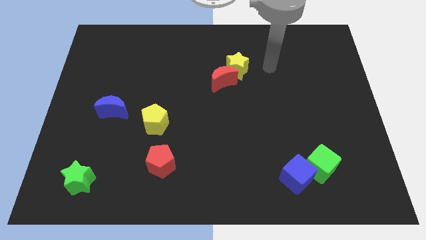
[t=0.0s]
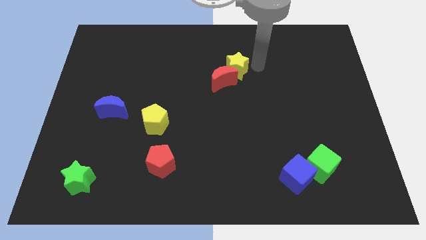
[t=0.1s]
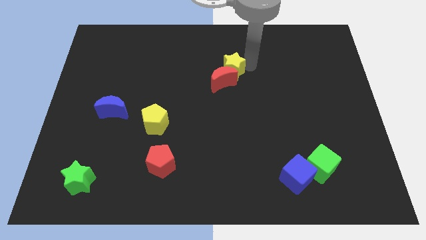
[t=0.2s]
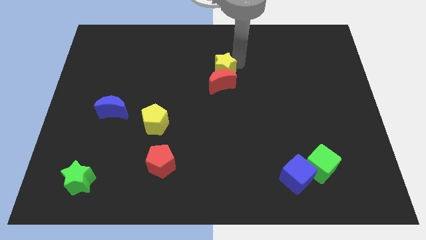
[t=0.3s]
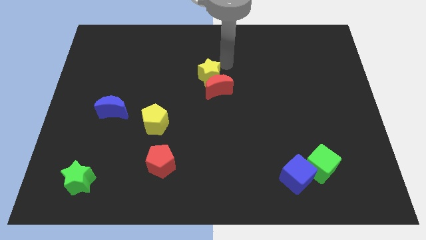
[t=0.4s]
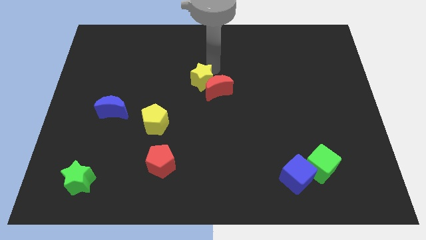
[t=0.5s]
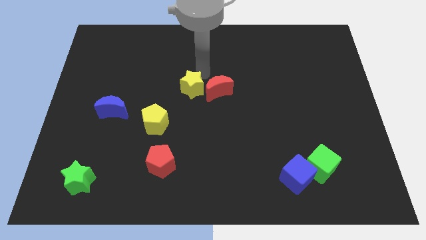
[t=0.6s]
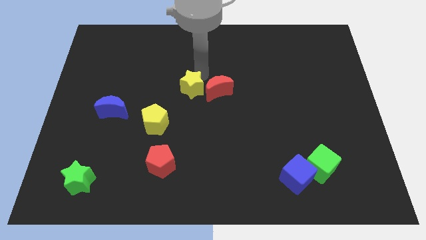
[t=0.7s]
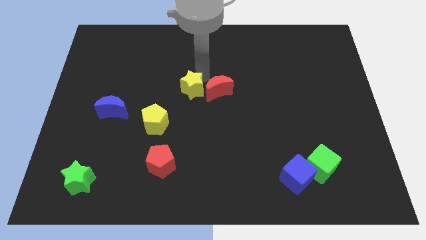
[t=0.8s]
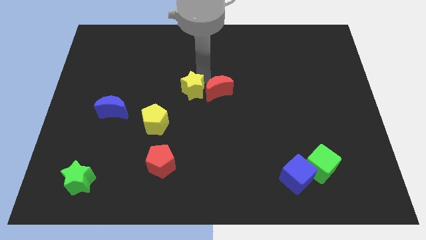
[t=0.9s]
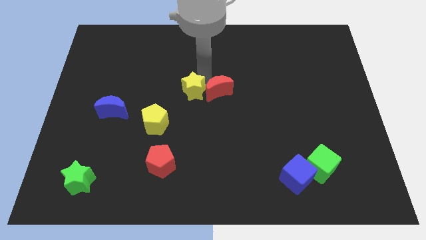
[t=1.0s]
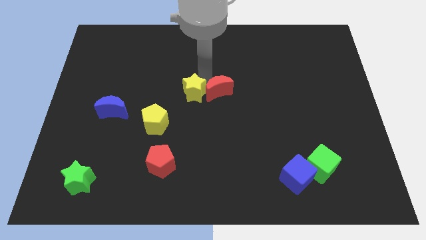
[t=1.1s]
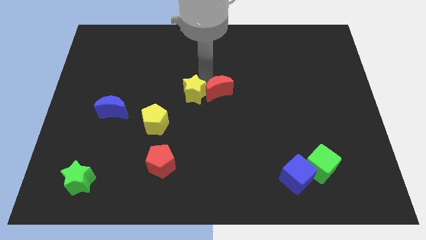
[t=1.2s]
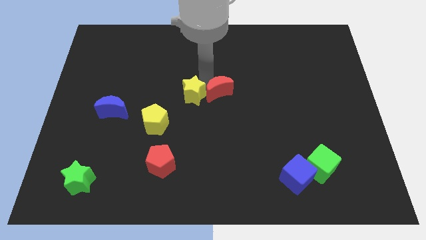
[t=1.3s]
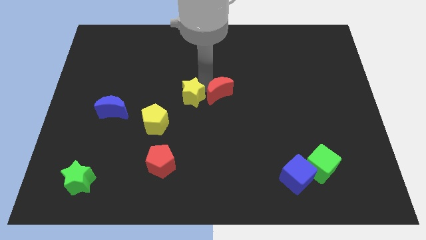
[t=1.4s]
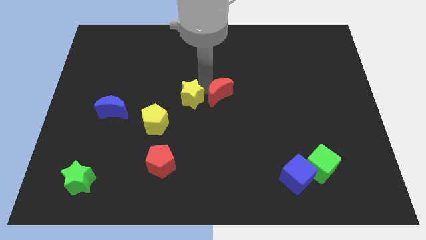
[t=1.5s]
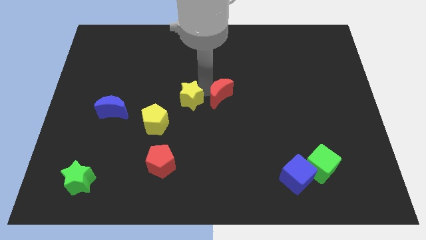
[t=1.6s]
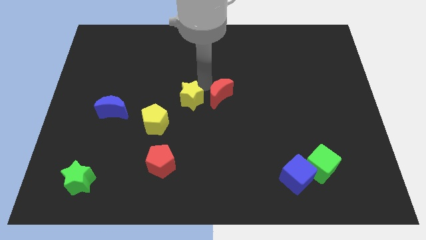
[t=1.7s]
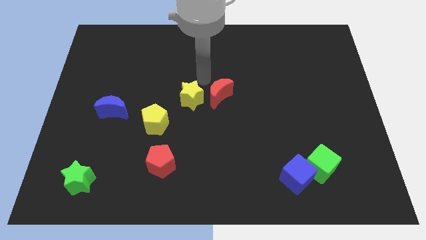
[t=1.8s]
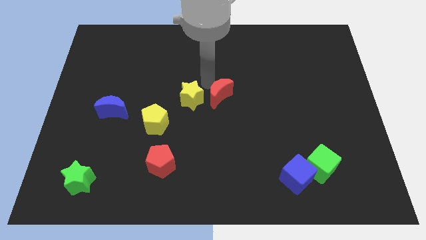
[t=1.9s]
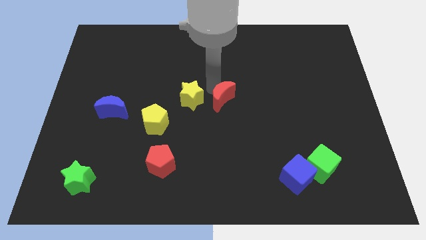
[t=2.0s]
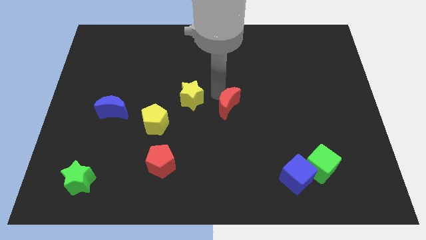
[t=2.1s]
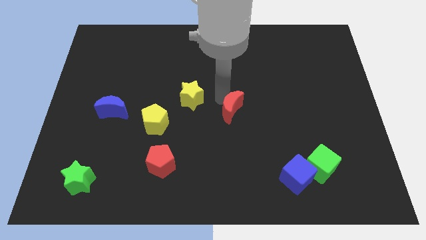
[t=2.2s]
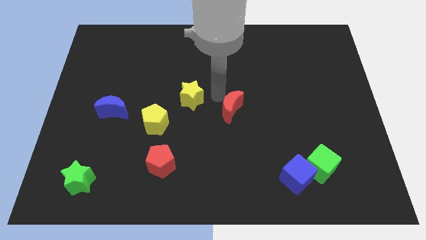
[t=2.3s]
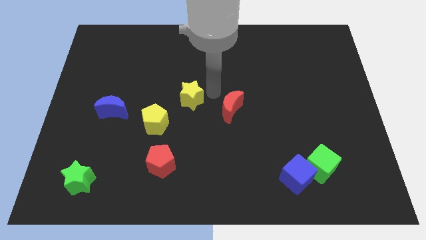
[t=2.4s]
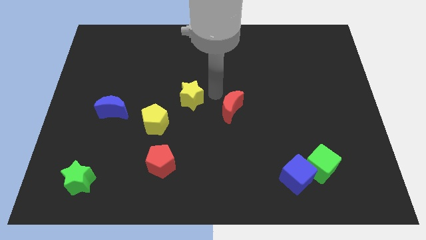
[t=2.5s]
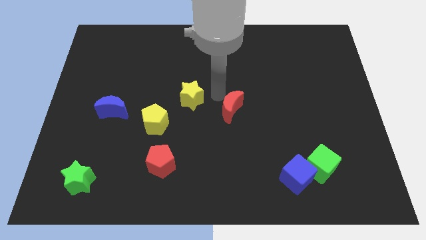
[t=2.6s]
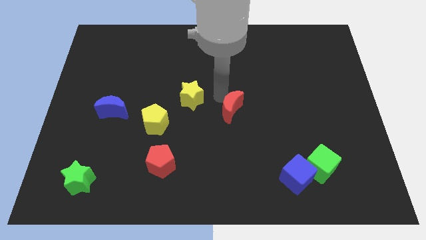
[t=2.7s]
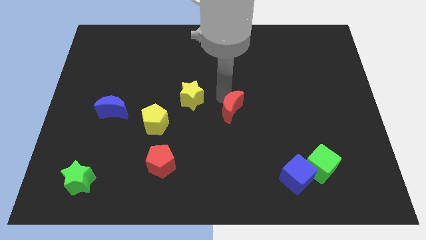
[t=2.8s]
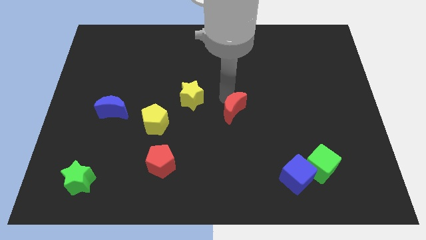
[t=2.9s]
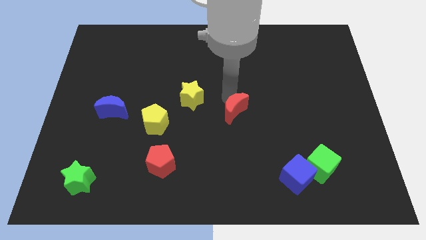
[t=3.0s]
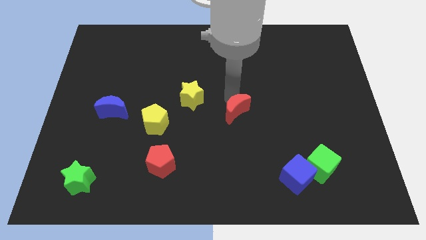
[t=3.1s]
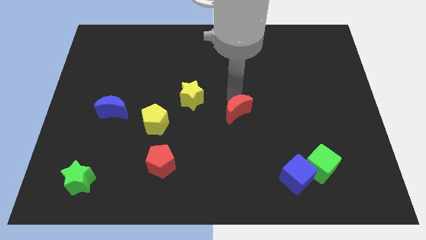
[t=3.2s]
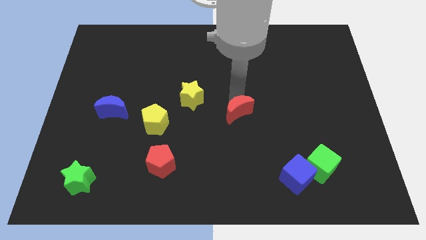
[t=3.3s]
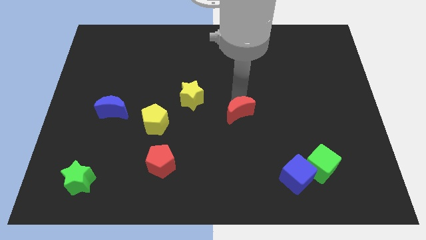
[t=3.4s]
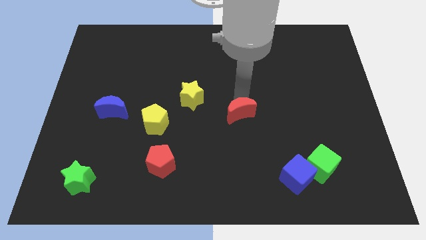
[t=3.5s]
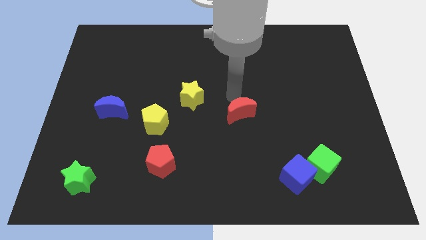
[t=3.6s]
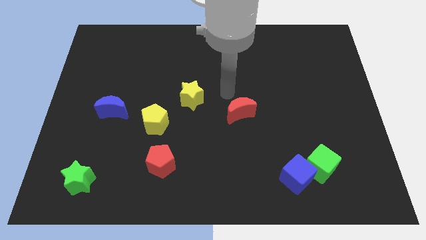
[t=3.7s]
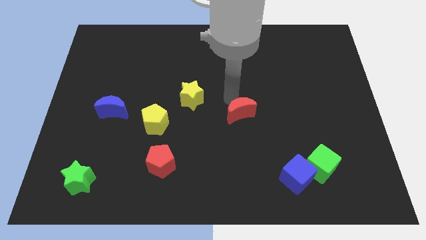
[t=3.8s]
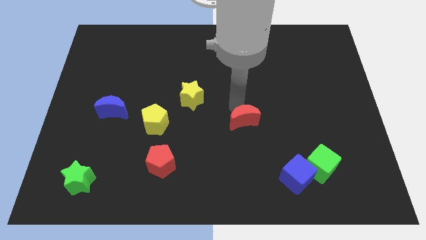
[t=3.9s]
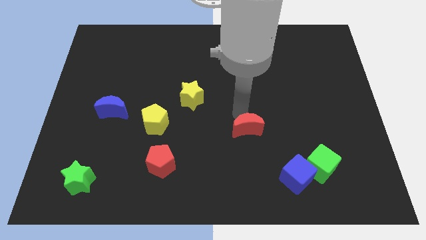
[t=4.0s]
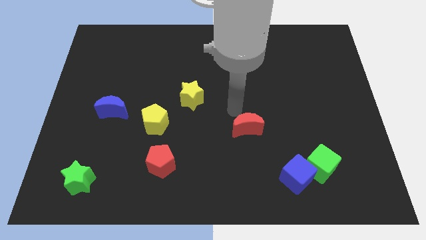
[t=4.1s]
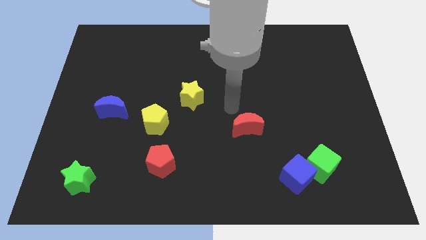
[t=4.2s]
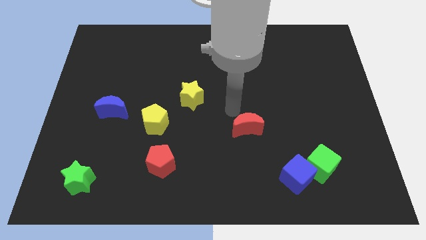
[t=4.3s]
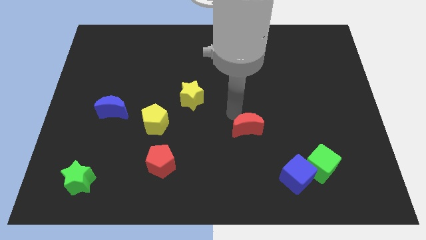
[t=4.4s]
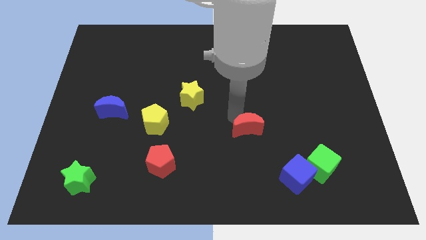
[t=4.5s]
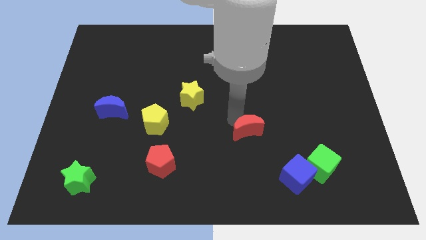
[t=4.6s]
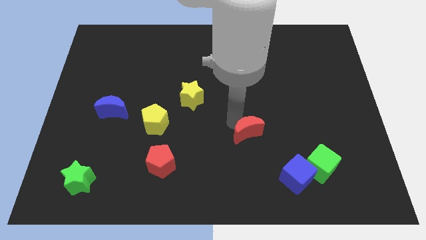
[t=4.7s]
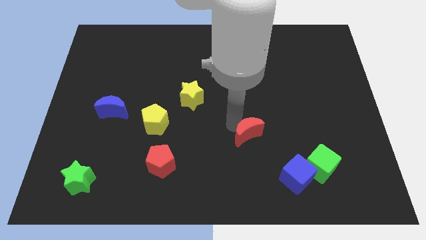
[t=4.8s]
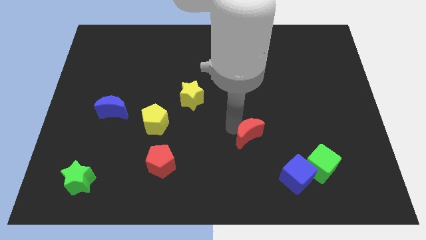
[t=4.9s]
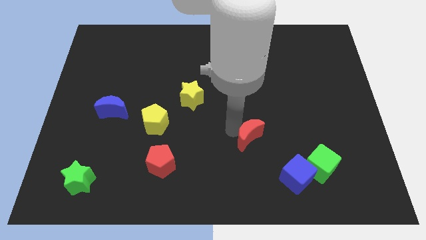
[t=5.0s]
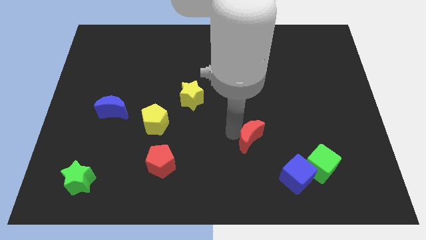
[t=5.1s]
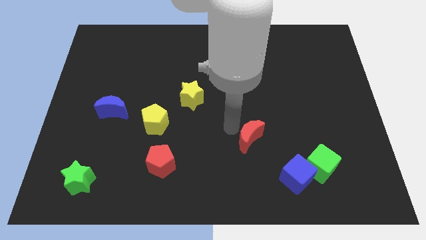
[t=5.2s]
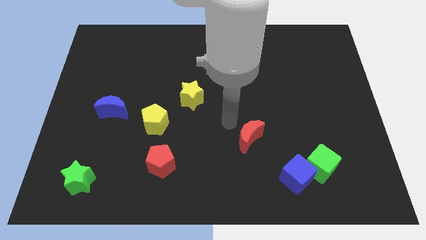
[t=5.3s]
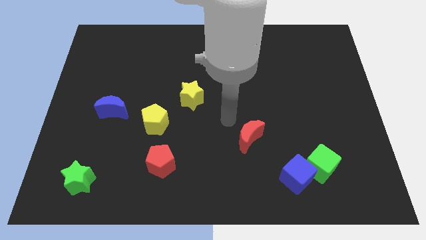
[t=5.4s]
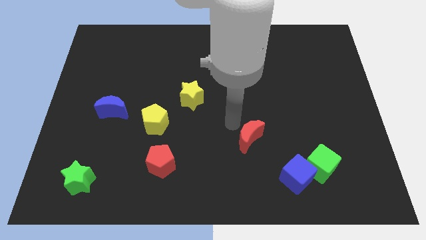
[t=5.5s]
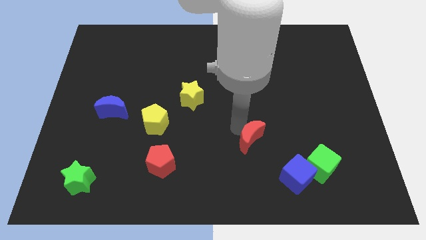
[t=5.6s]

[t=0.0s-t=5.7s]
slide the red moon diagonally up and to the left of the blue cube

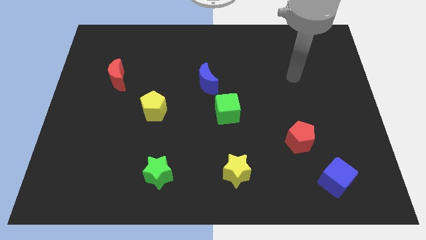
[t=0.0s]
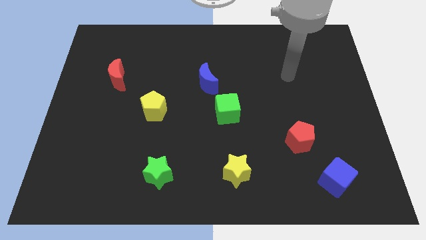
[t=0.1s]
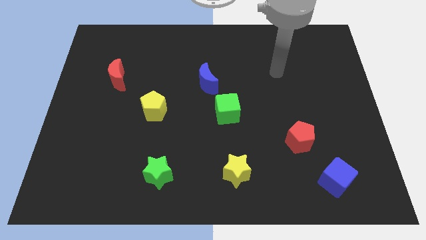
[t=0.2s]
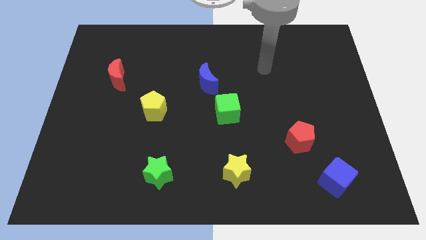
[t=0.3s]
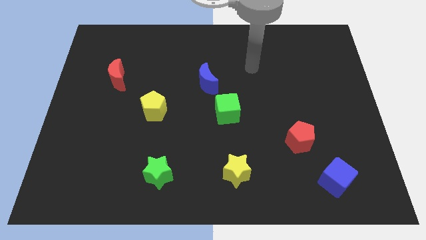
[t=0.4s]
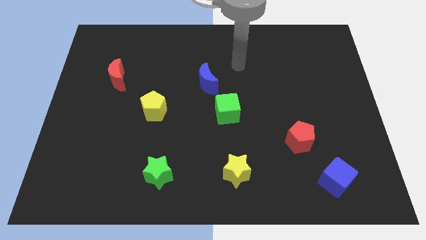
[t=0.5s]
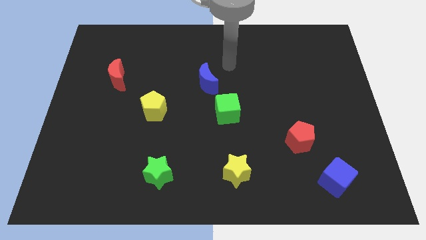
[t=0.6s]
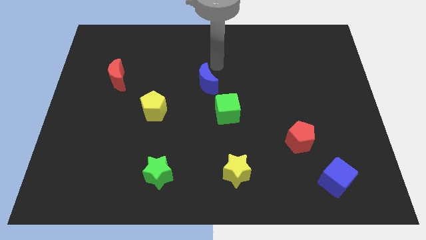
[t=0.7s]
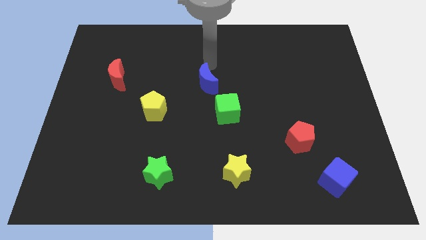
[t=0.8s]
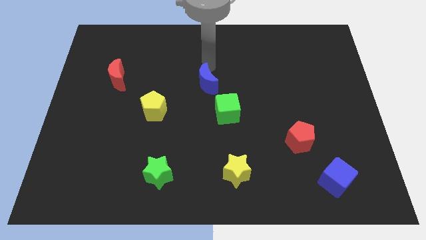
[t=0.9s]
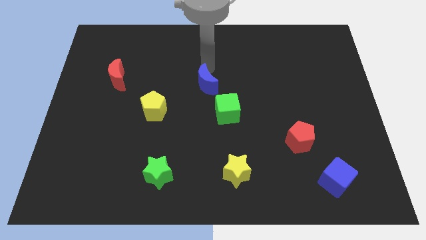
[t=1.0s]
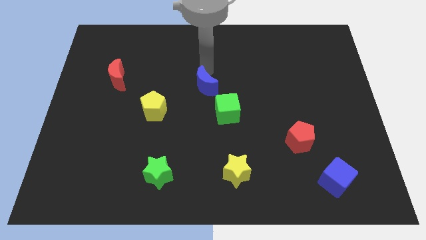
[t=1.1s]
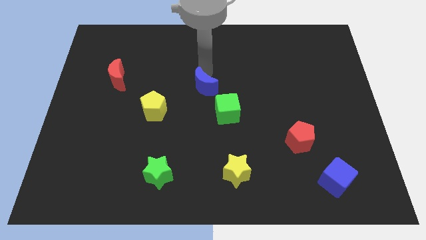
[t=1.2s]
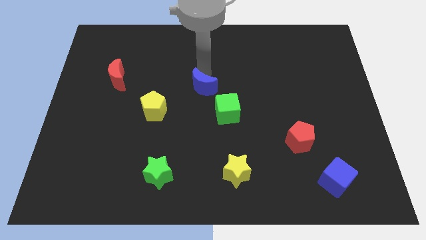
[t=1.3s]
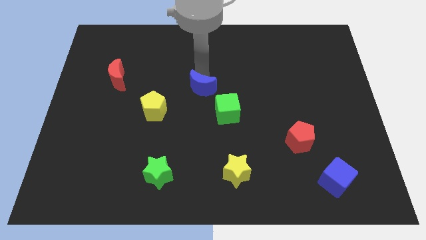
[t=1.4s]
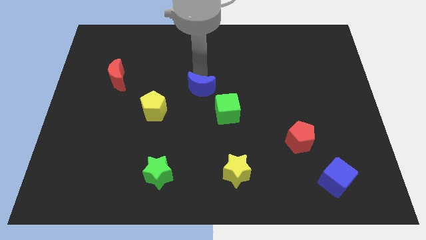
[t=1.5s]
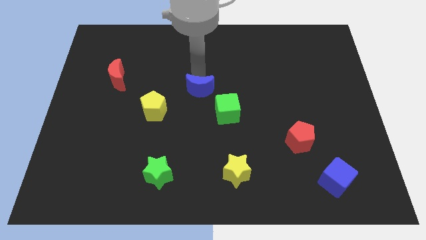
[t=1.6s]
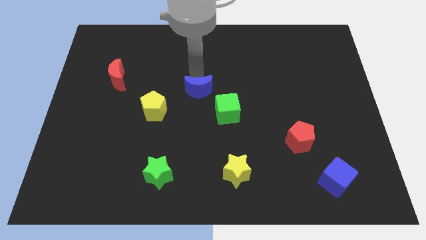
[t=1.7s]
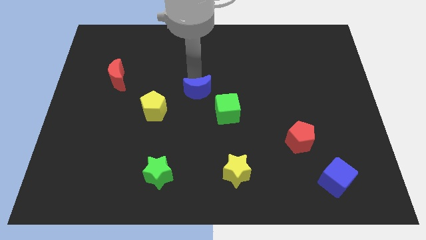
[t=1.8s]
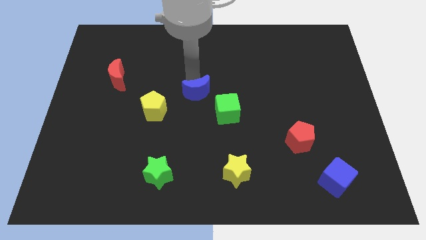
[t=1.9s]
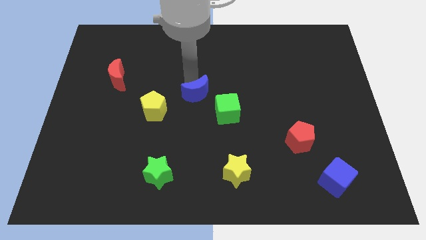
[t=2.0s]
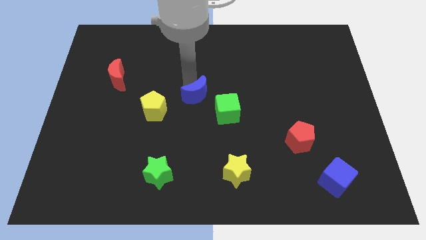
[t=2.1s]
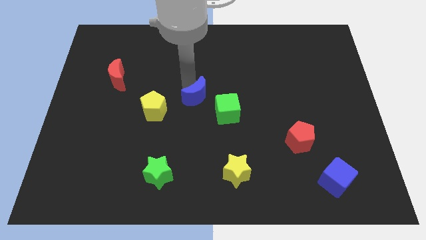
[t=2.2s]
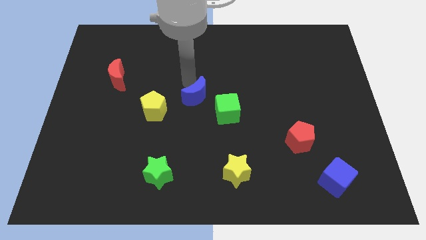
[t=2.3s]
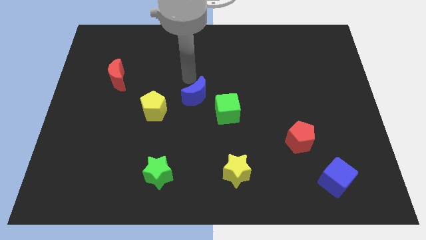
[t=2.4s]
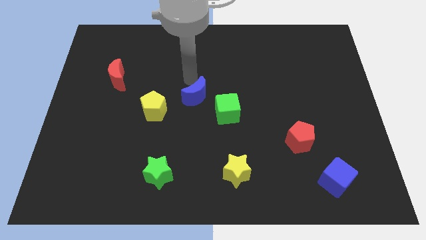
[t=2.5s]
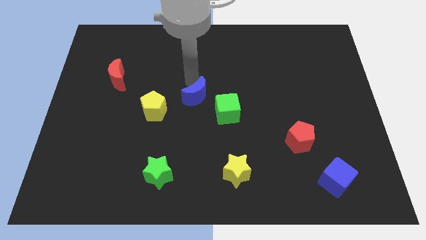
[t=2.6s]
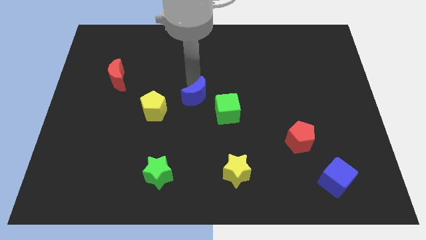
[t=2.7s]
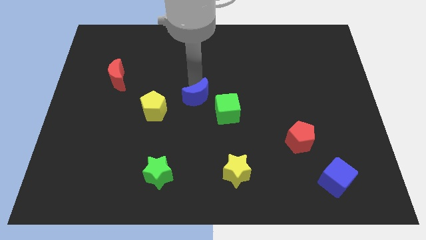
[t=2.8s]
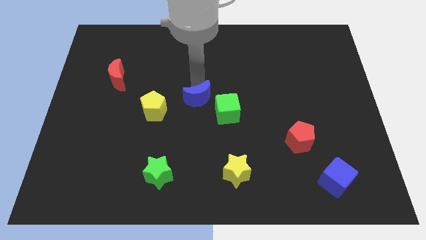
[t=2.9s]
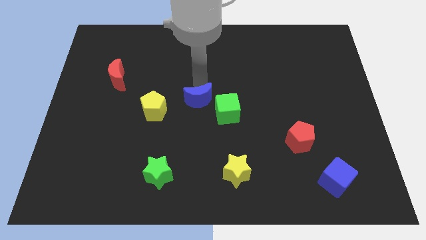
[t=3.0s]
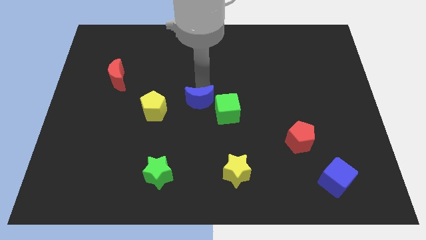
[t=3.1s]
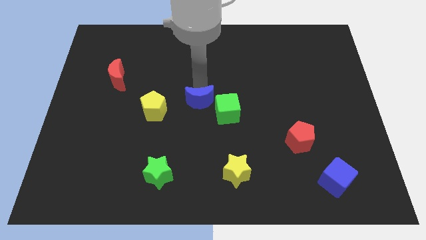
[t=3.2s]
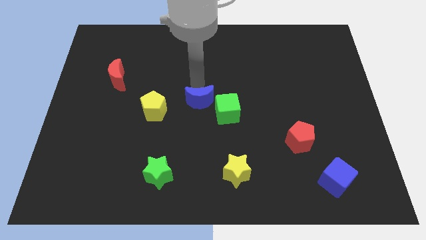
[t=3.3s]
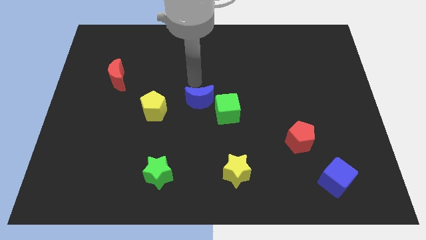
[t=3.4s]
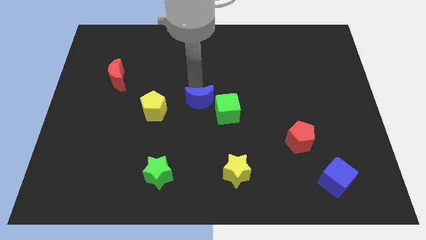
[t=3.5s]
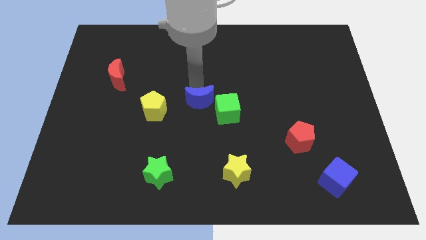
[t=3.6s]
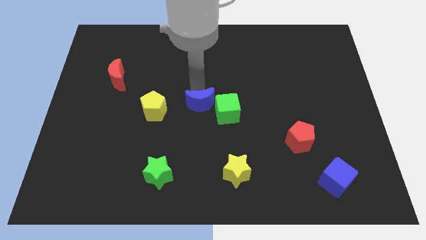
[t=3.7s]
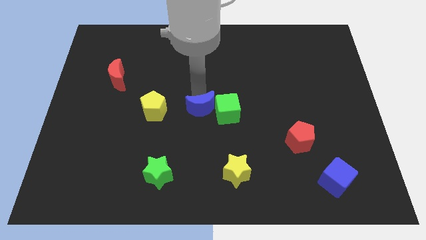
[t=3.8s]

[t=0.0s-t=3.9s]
slide the blue moon to the bottom left of the green cube
